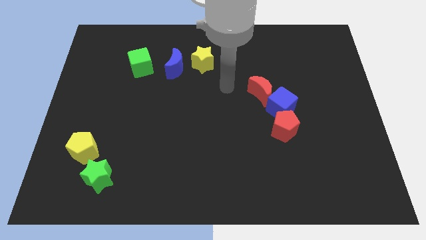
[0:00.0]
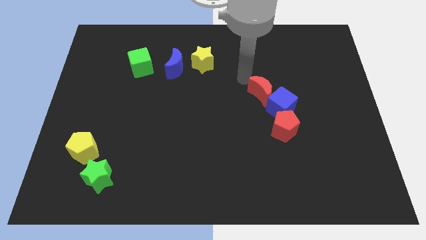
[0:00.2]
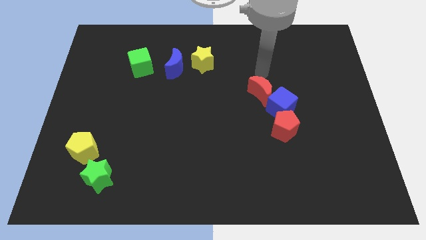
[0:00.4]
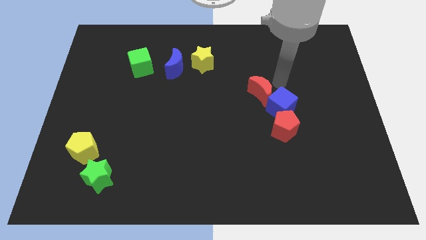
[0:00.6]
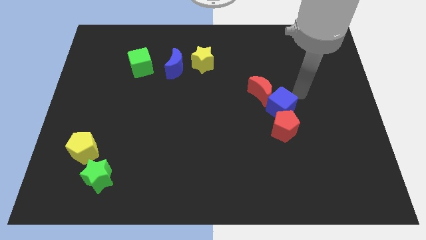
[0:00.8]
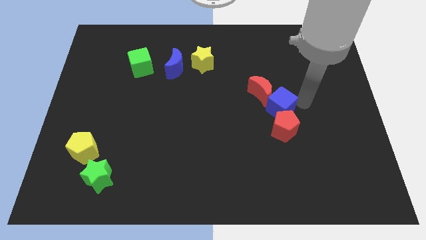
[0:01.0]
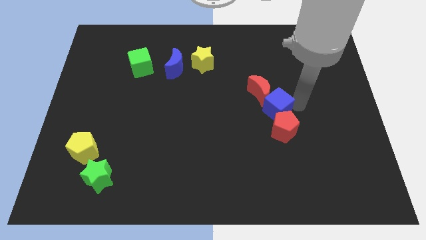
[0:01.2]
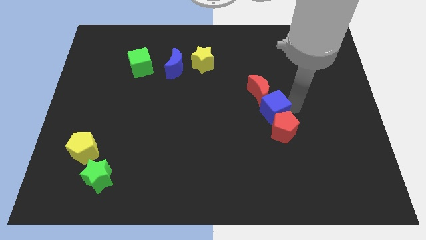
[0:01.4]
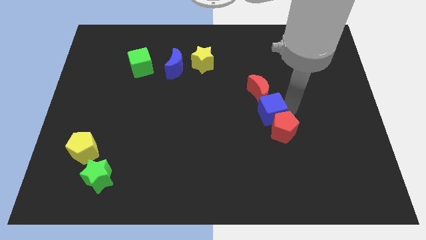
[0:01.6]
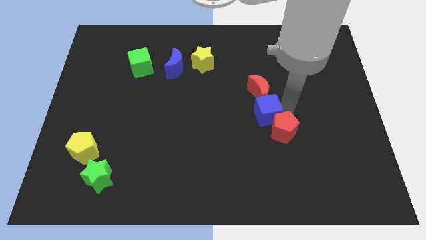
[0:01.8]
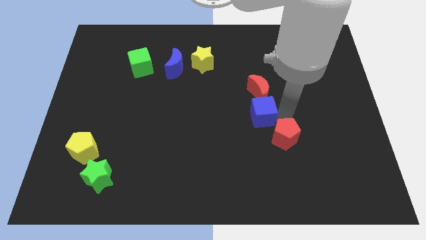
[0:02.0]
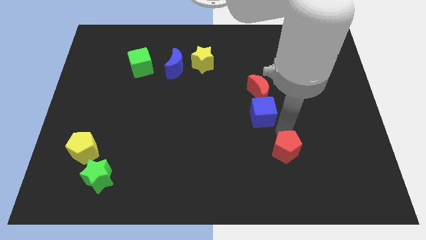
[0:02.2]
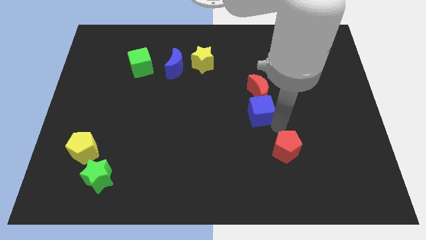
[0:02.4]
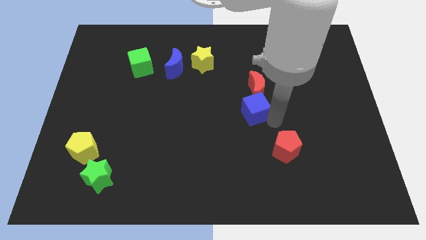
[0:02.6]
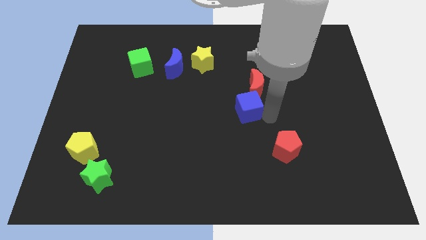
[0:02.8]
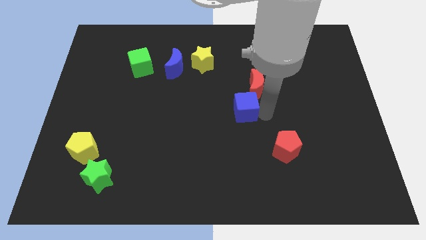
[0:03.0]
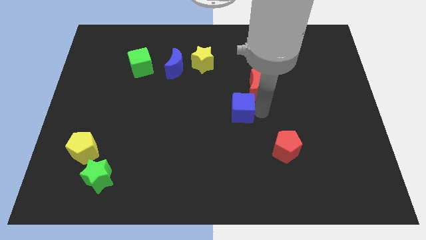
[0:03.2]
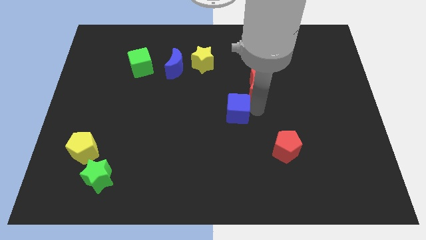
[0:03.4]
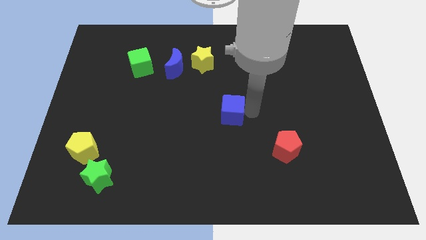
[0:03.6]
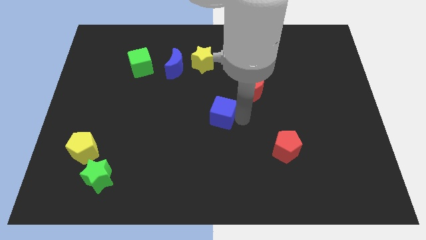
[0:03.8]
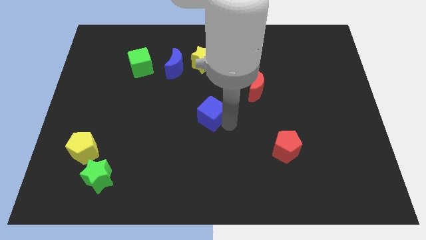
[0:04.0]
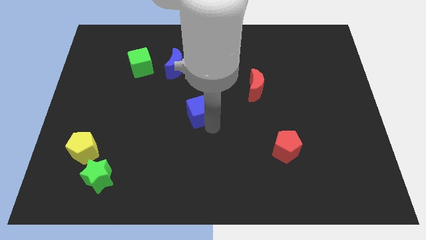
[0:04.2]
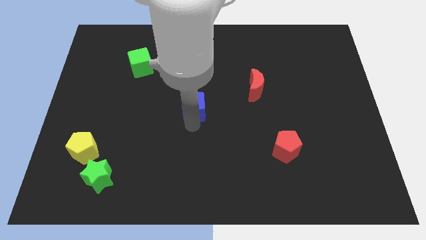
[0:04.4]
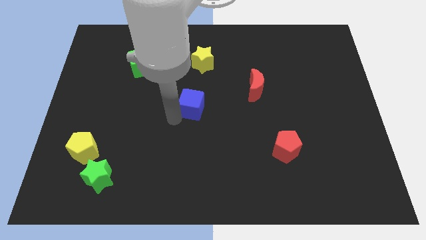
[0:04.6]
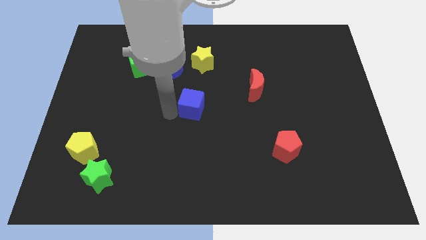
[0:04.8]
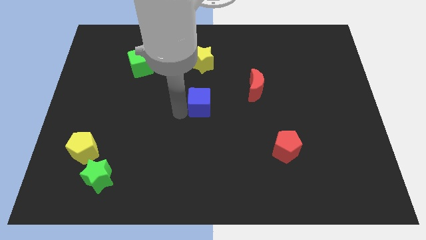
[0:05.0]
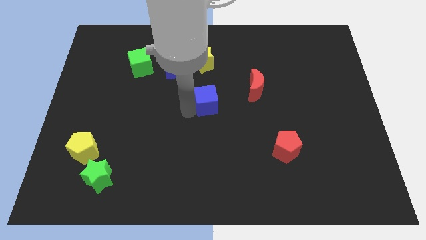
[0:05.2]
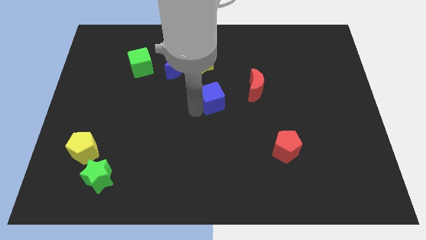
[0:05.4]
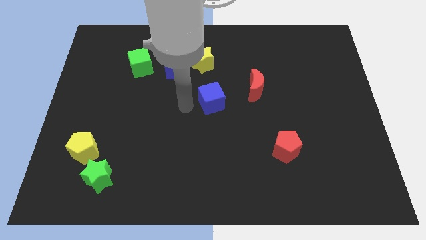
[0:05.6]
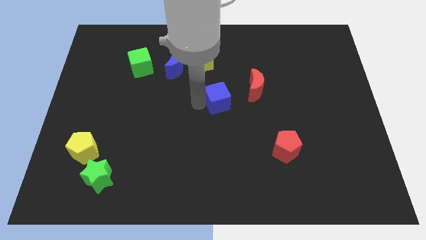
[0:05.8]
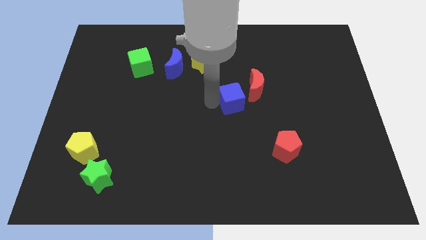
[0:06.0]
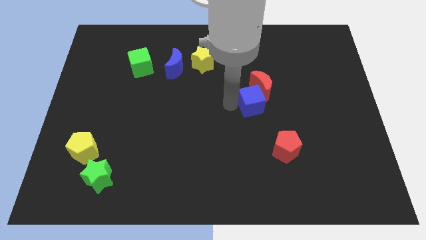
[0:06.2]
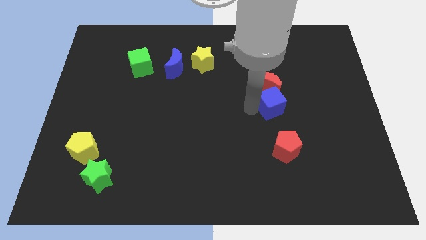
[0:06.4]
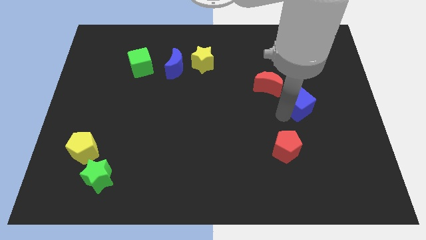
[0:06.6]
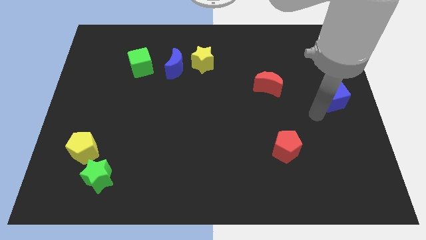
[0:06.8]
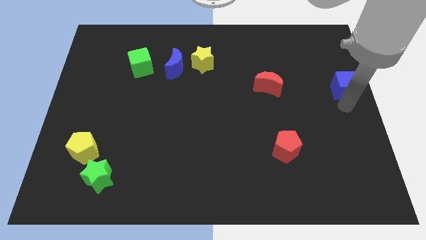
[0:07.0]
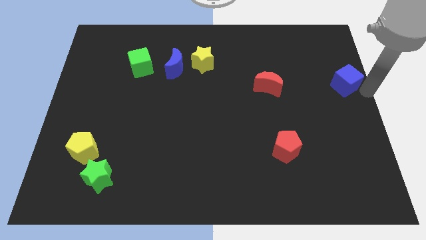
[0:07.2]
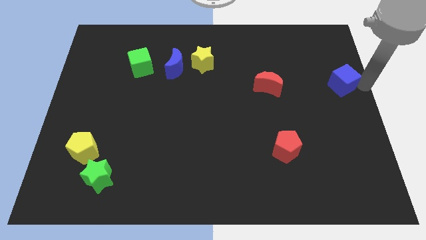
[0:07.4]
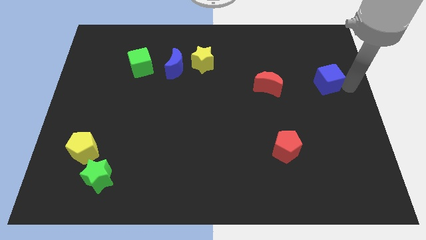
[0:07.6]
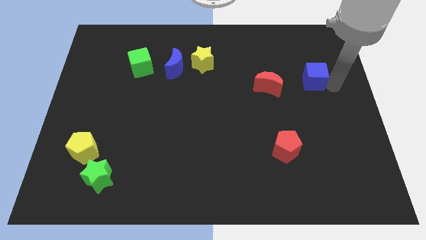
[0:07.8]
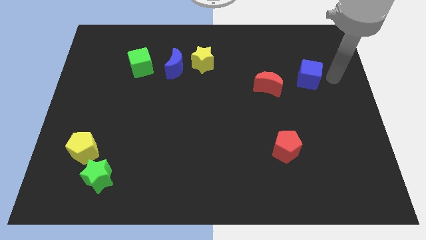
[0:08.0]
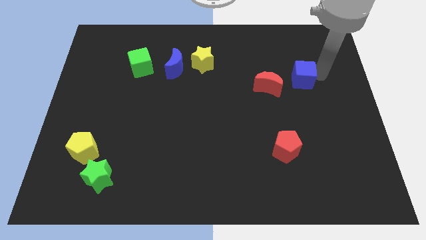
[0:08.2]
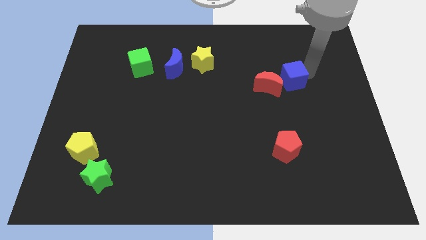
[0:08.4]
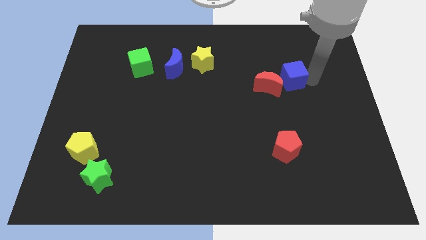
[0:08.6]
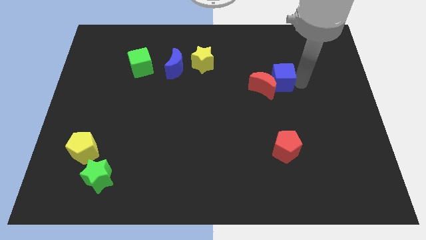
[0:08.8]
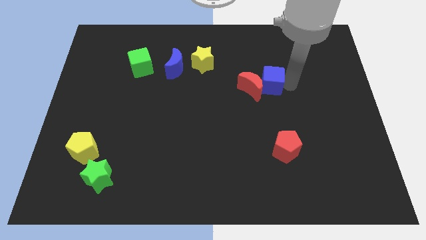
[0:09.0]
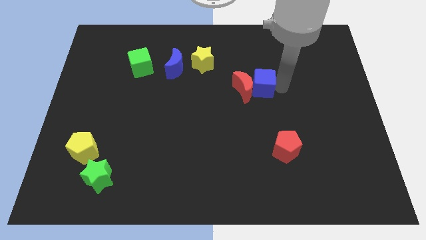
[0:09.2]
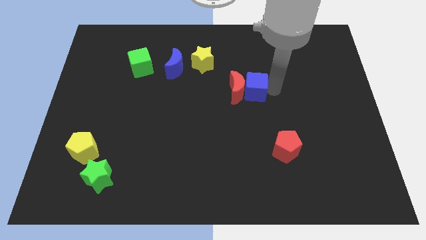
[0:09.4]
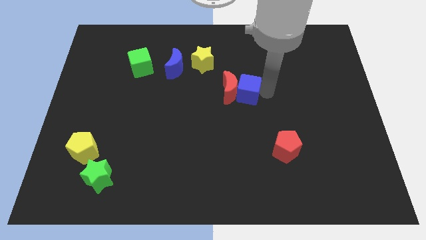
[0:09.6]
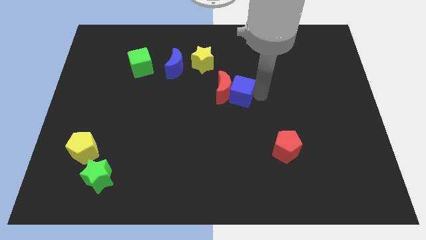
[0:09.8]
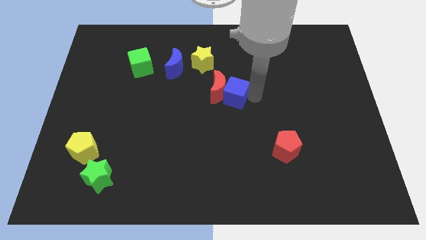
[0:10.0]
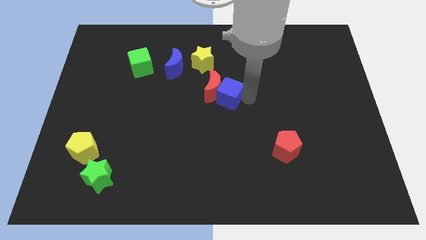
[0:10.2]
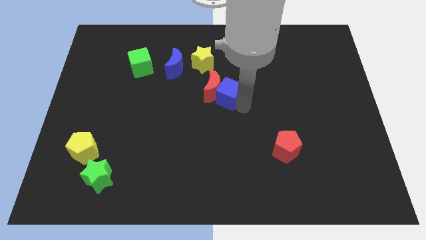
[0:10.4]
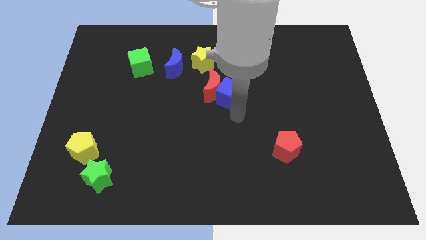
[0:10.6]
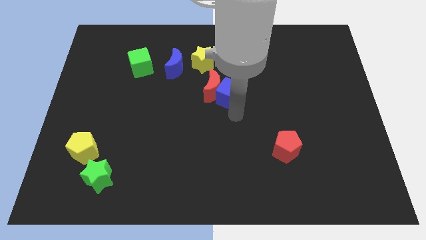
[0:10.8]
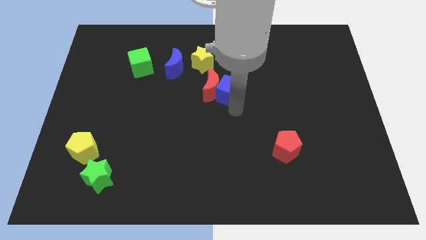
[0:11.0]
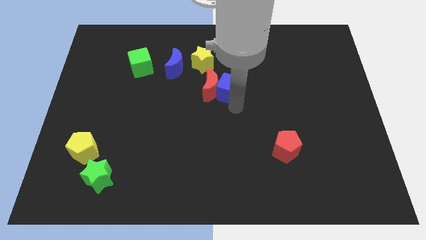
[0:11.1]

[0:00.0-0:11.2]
put the blue cube diagonally down and to the right of the yellow star

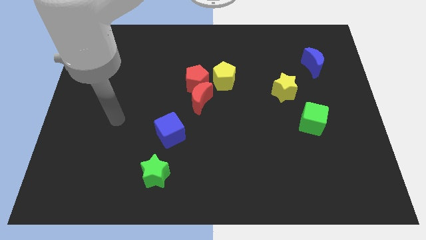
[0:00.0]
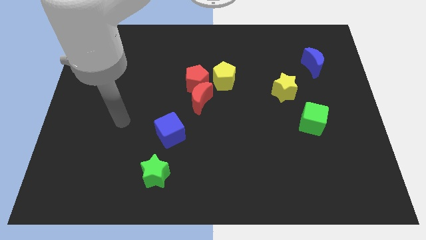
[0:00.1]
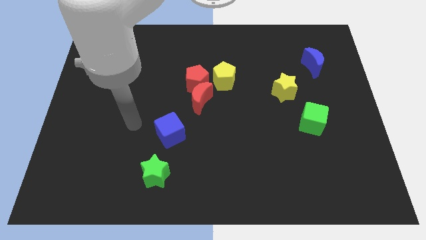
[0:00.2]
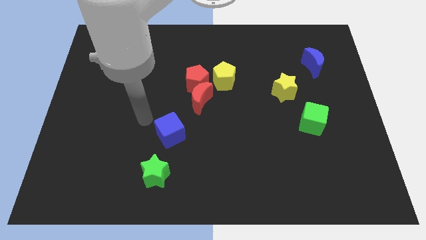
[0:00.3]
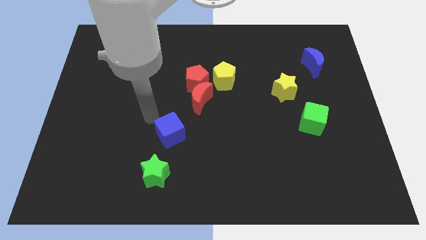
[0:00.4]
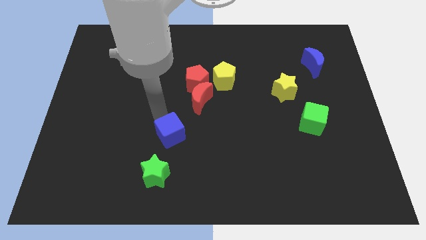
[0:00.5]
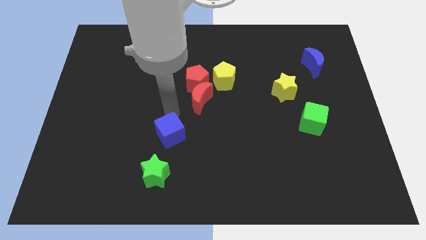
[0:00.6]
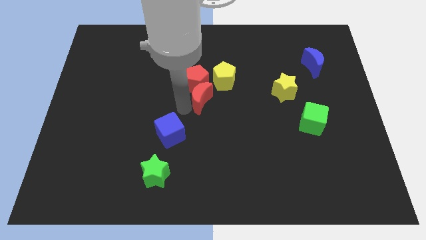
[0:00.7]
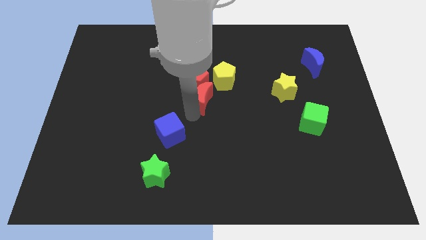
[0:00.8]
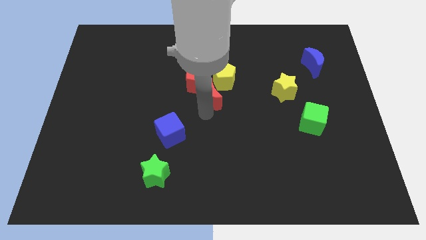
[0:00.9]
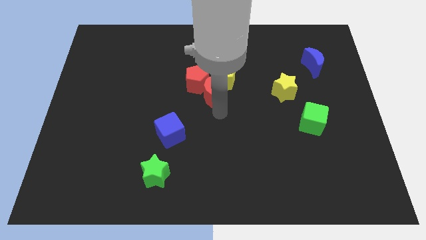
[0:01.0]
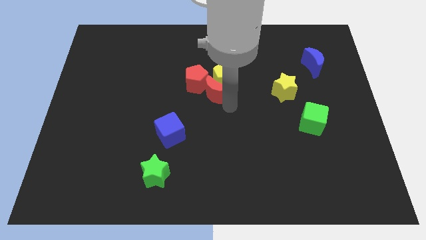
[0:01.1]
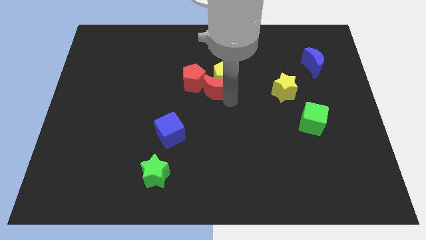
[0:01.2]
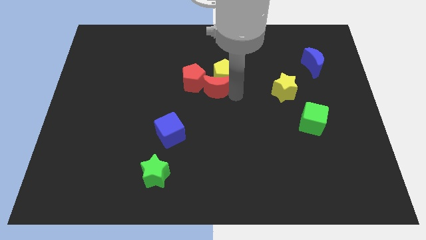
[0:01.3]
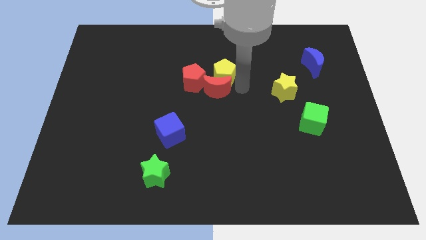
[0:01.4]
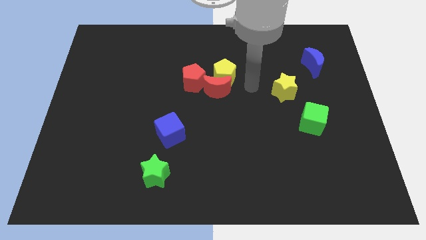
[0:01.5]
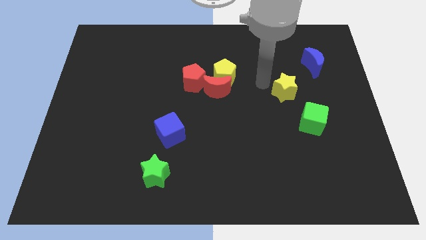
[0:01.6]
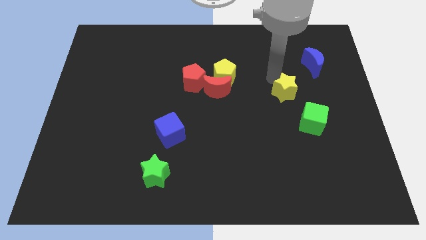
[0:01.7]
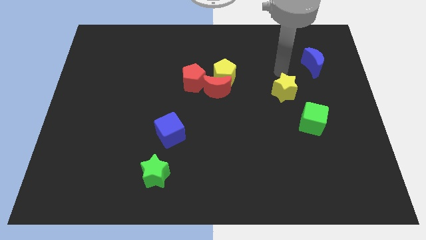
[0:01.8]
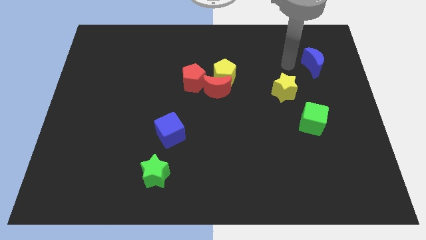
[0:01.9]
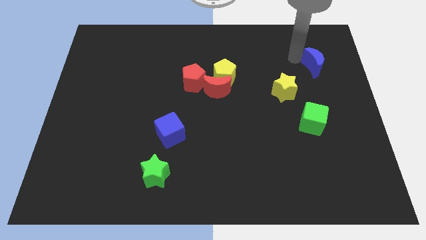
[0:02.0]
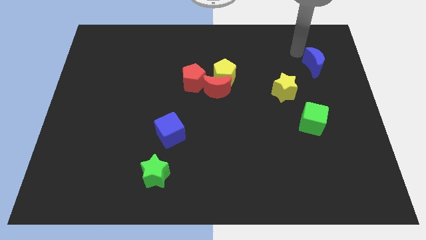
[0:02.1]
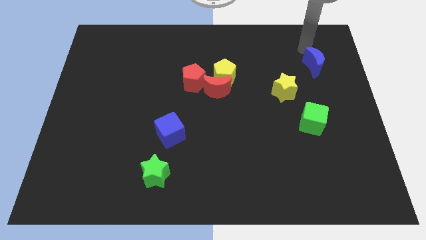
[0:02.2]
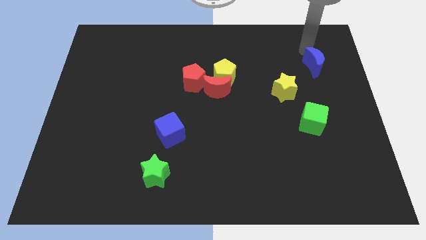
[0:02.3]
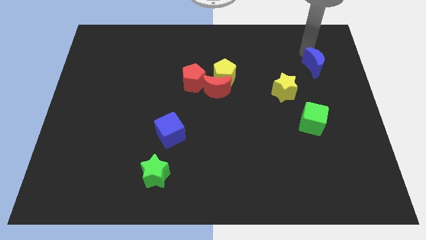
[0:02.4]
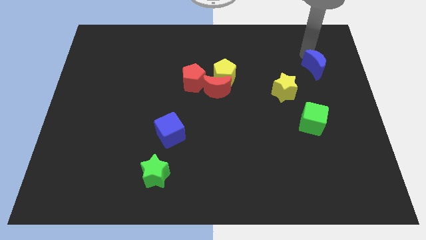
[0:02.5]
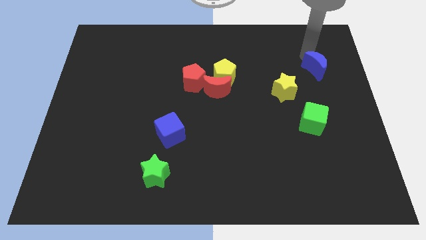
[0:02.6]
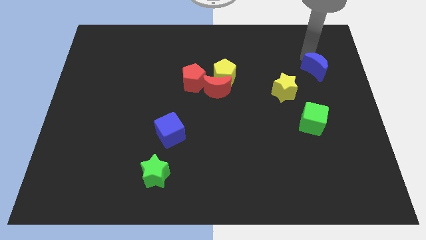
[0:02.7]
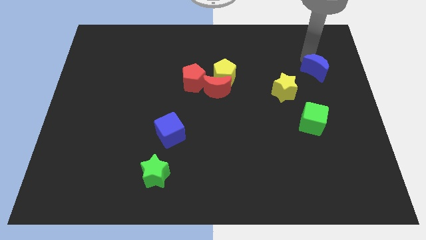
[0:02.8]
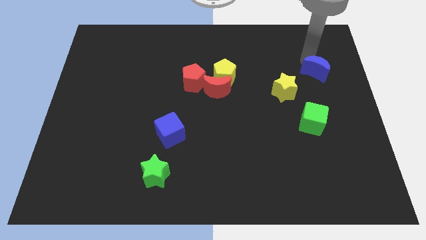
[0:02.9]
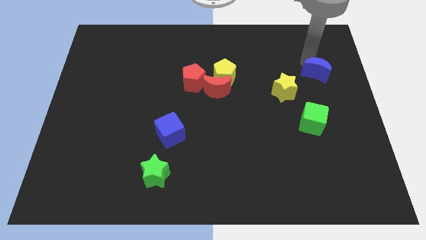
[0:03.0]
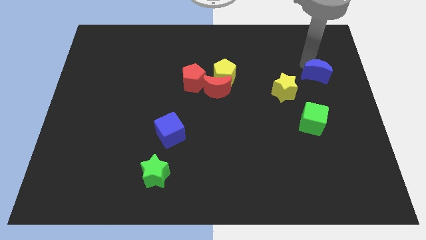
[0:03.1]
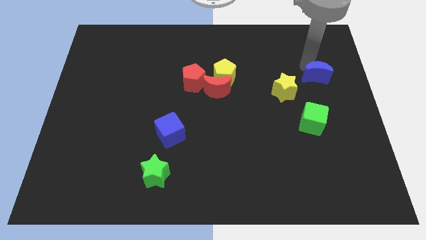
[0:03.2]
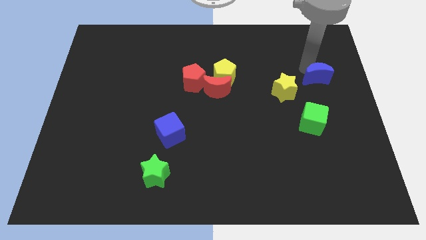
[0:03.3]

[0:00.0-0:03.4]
slide the blue moon to the right of the yellow star
